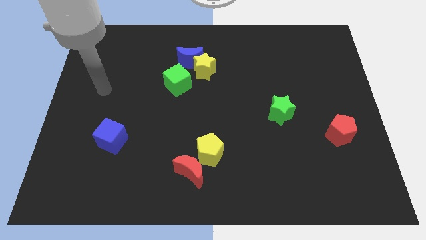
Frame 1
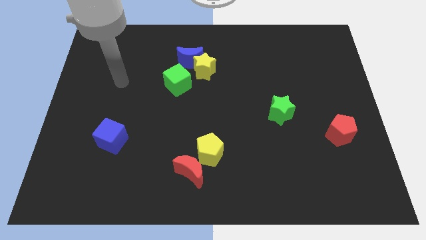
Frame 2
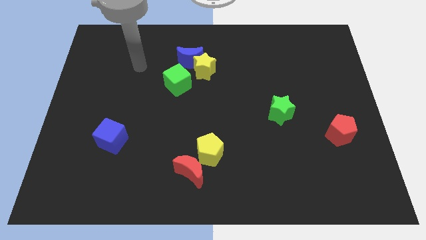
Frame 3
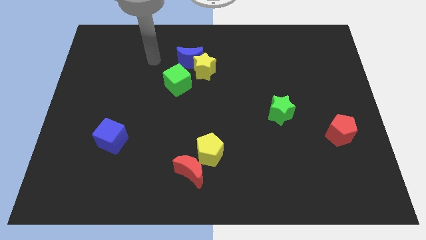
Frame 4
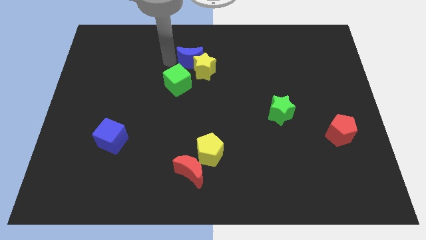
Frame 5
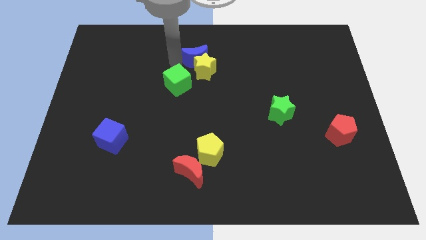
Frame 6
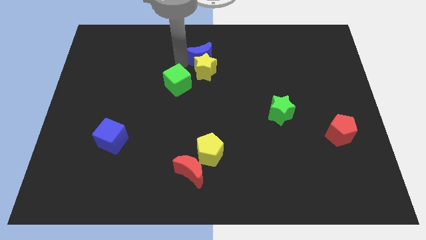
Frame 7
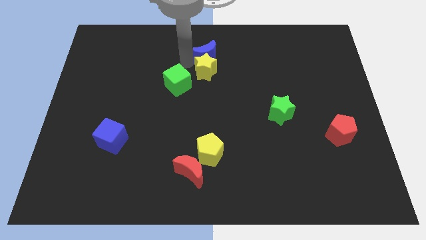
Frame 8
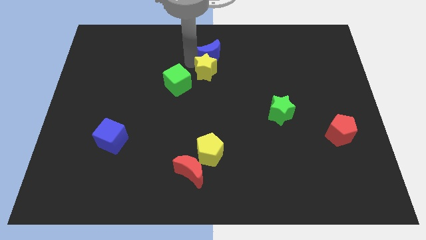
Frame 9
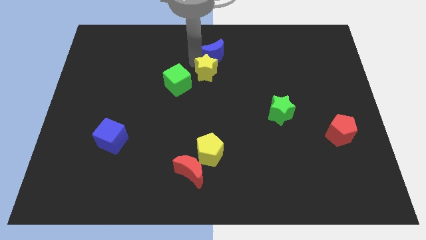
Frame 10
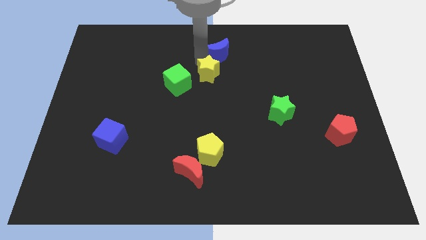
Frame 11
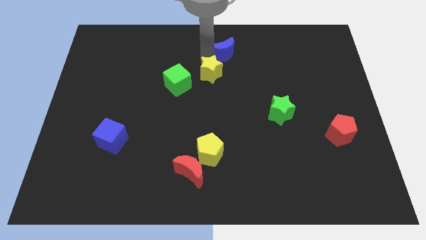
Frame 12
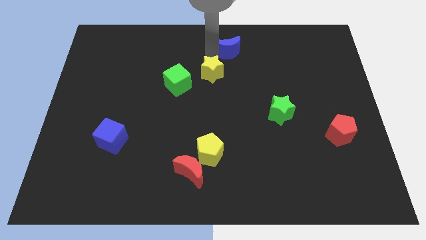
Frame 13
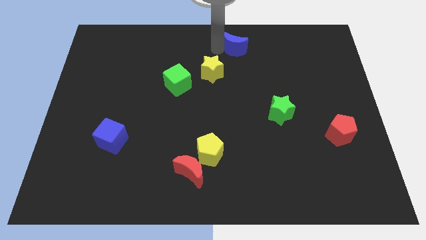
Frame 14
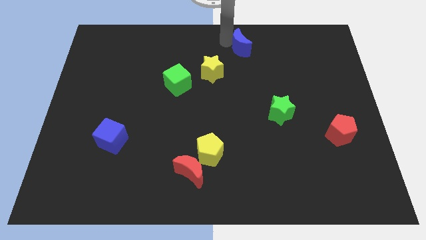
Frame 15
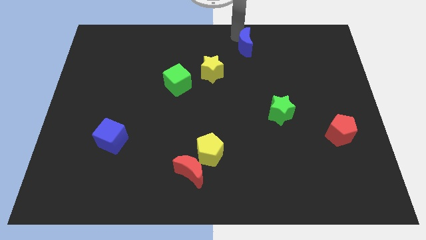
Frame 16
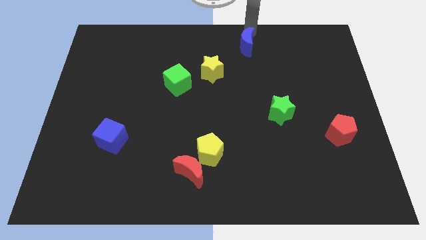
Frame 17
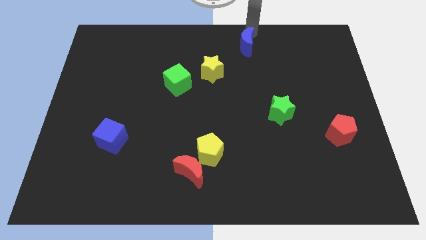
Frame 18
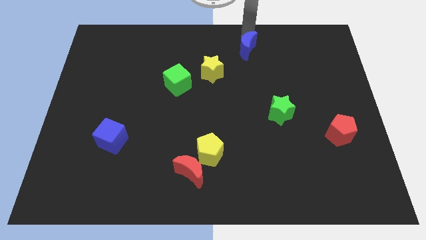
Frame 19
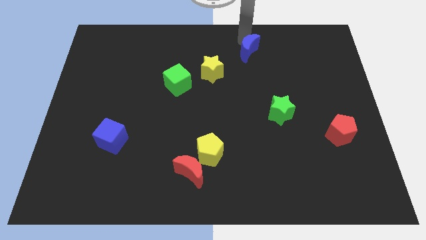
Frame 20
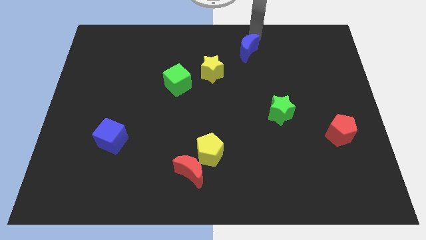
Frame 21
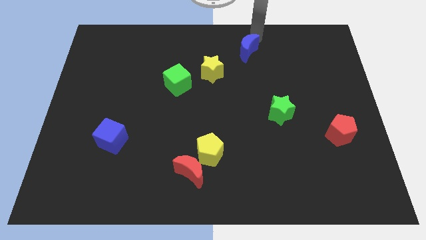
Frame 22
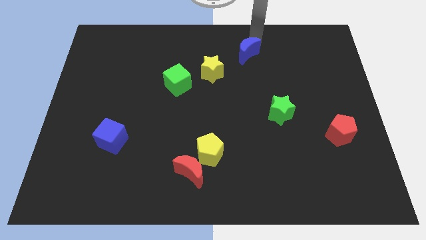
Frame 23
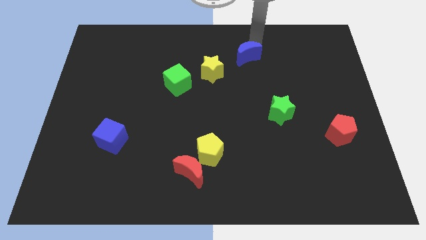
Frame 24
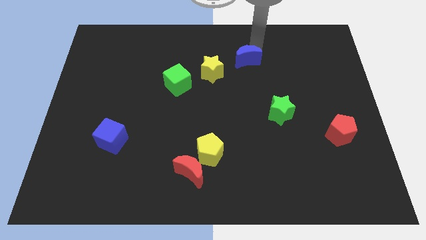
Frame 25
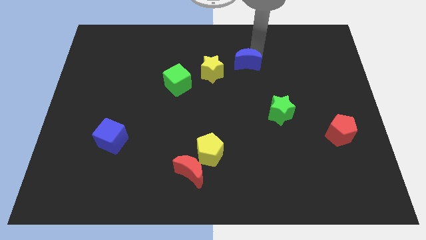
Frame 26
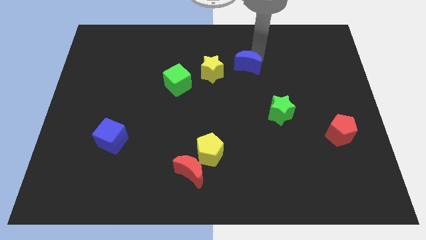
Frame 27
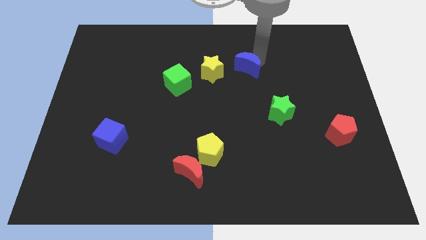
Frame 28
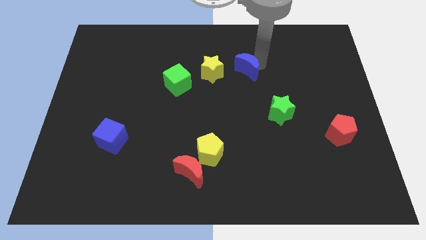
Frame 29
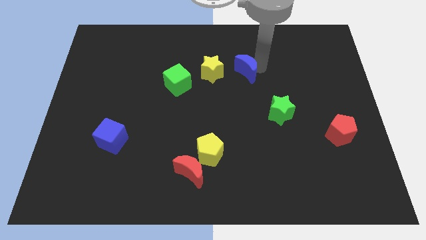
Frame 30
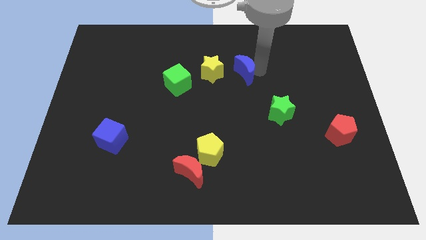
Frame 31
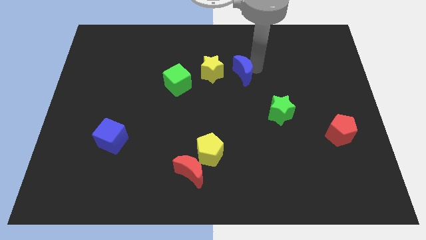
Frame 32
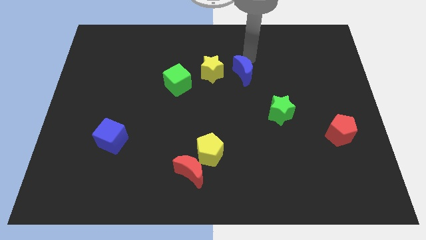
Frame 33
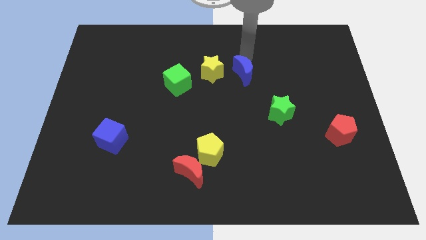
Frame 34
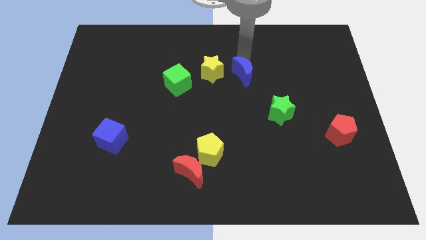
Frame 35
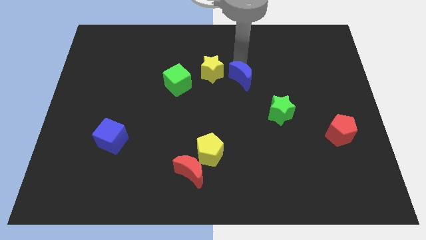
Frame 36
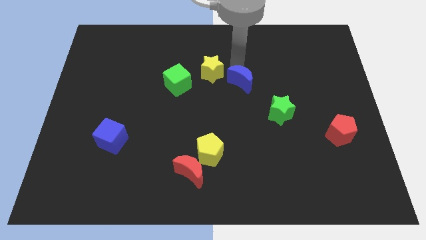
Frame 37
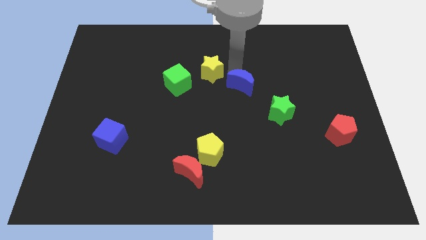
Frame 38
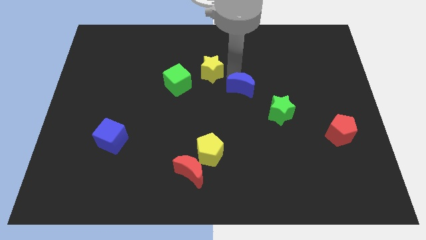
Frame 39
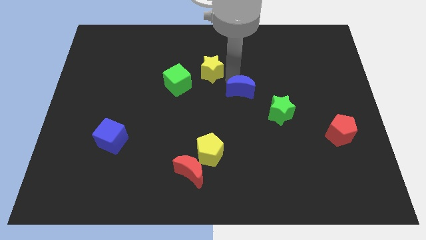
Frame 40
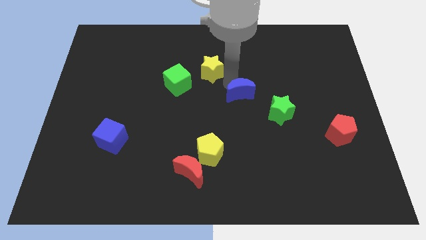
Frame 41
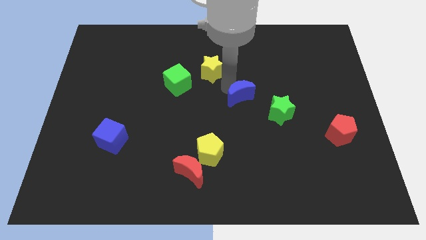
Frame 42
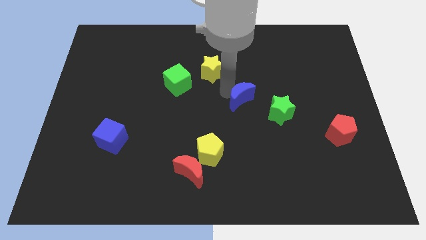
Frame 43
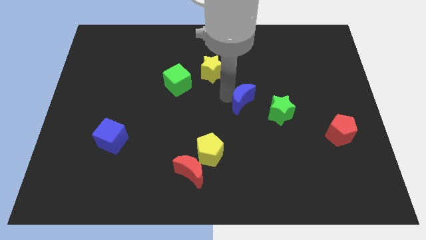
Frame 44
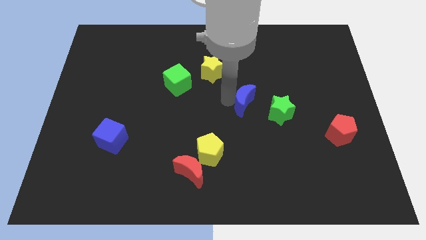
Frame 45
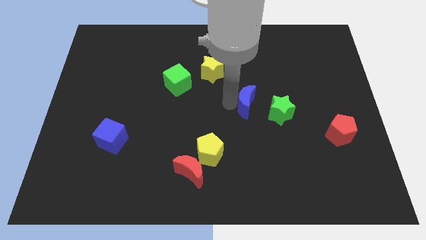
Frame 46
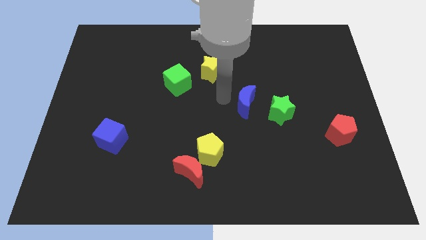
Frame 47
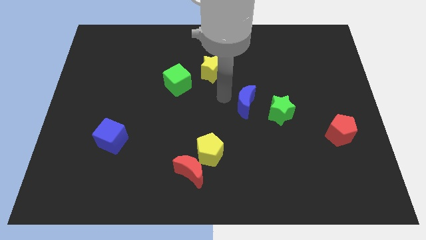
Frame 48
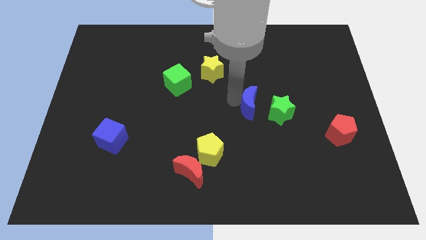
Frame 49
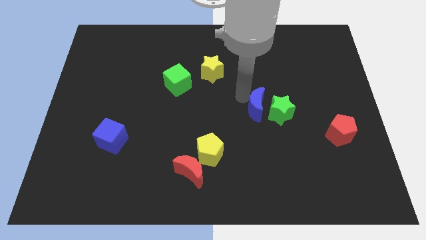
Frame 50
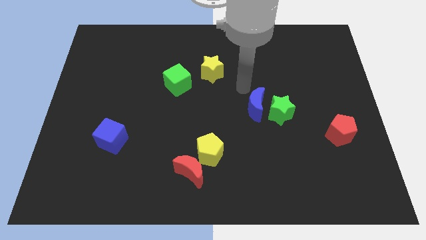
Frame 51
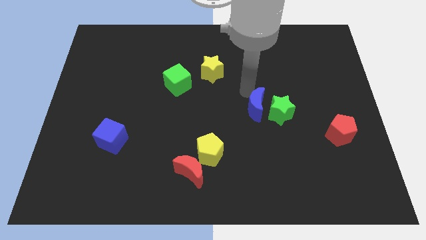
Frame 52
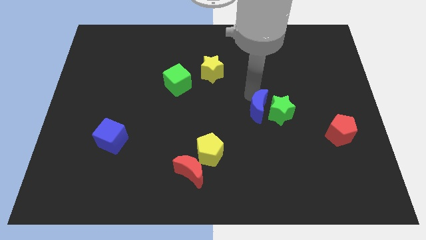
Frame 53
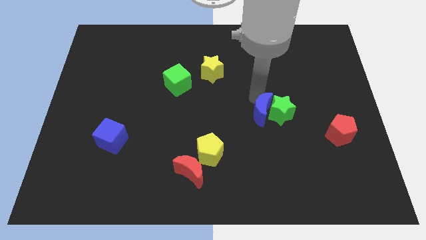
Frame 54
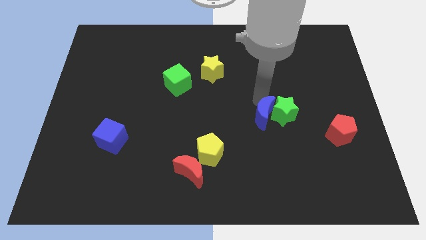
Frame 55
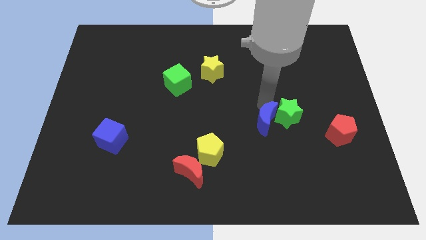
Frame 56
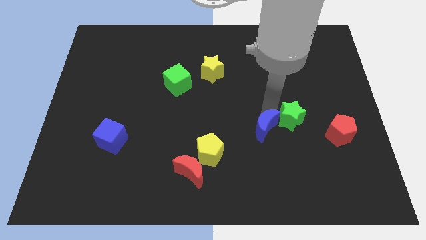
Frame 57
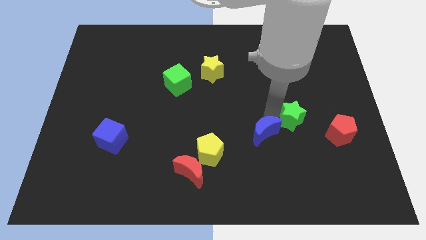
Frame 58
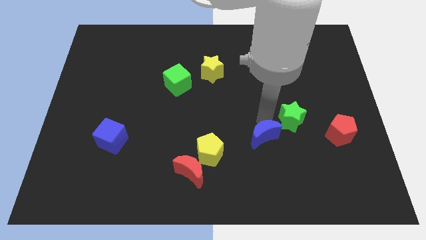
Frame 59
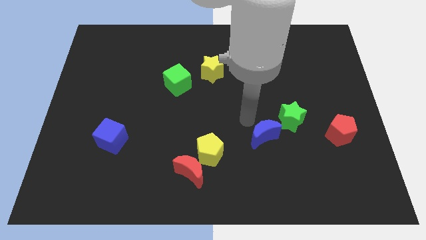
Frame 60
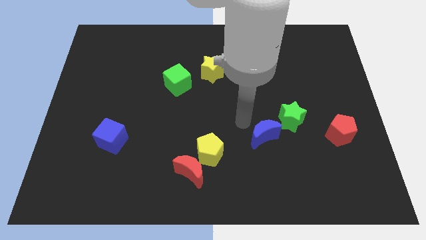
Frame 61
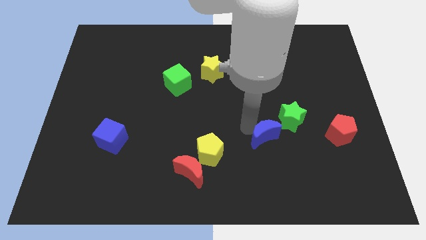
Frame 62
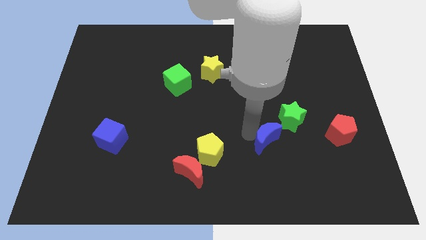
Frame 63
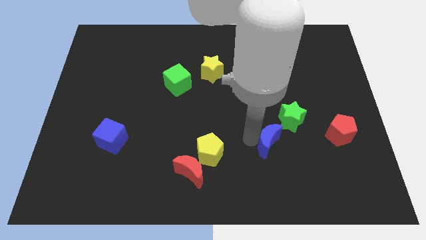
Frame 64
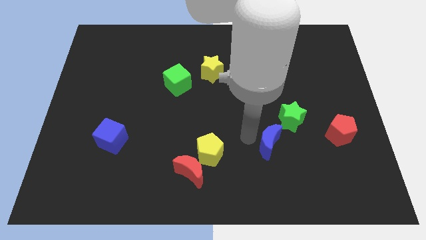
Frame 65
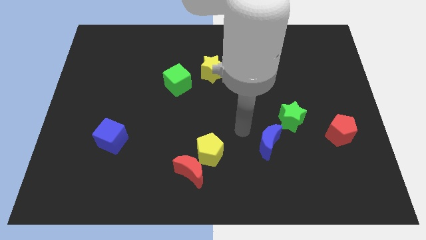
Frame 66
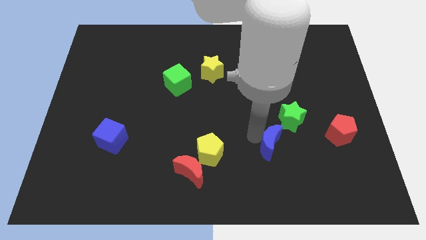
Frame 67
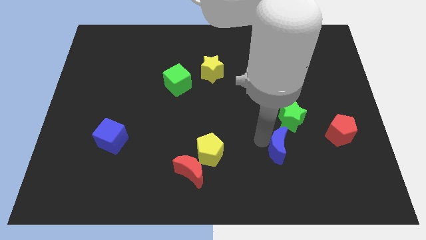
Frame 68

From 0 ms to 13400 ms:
move the blue moon to the bottom side of the green star

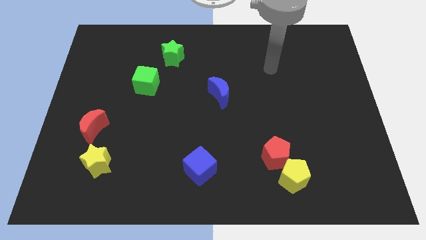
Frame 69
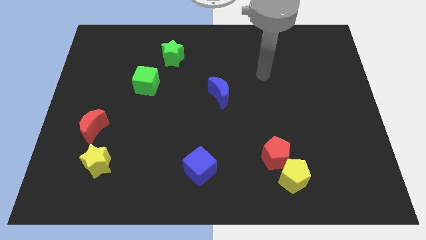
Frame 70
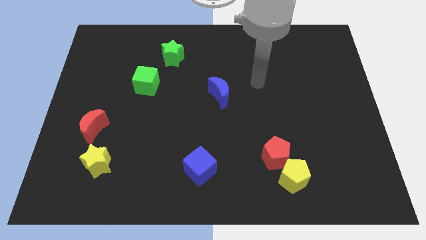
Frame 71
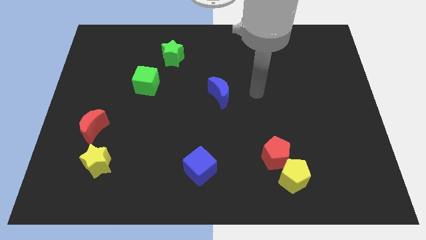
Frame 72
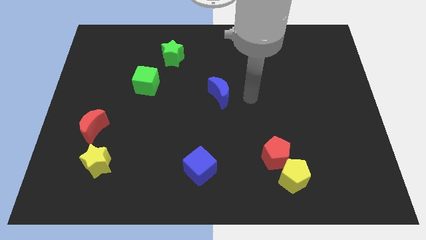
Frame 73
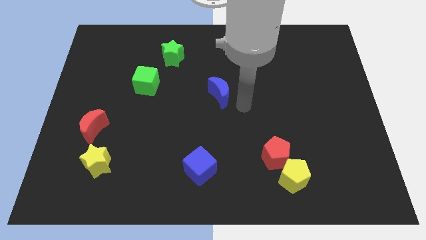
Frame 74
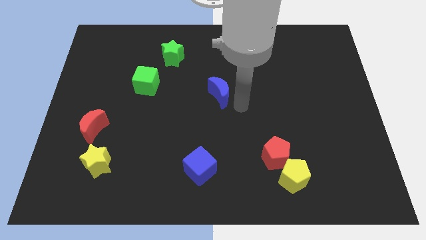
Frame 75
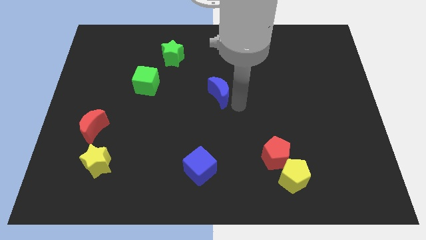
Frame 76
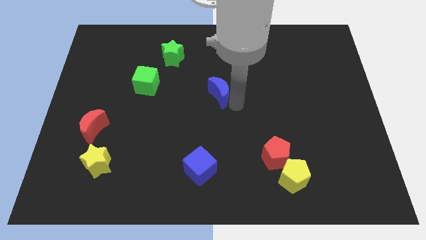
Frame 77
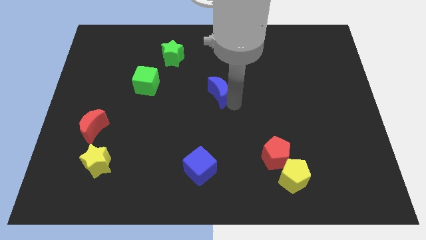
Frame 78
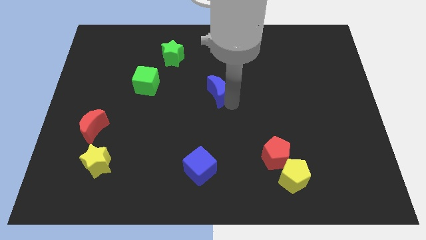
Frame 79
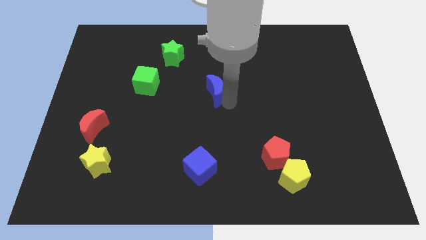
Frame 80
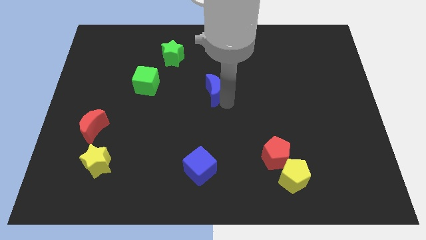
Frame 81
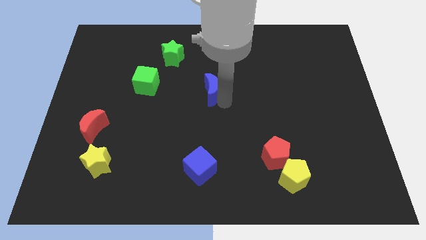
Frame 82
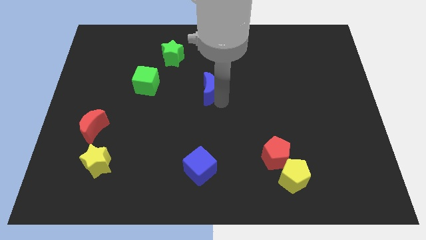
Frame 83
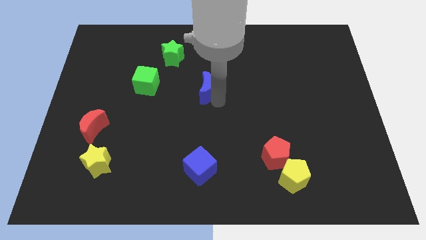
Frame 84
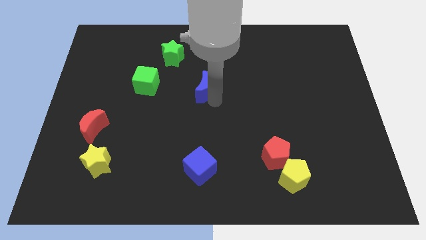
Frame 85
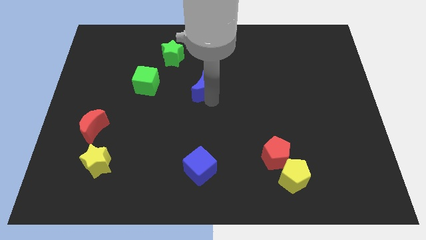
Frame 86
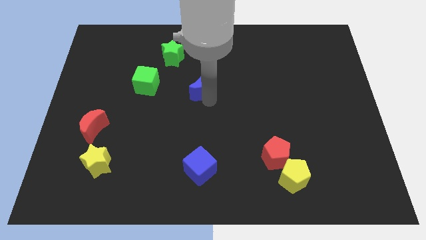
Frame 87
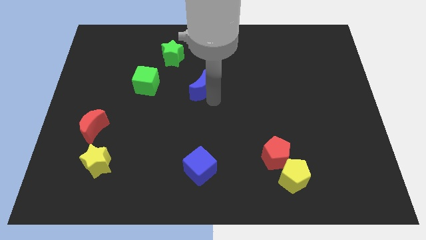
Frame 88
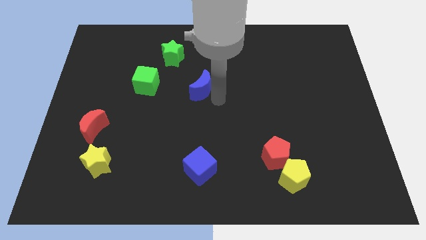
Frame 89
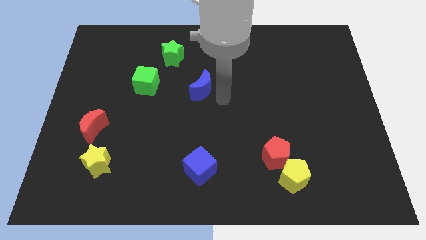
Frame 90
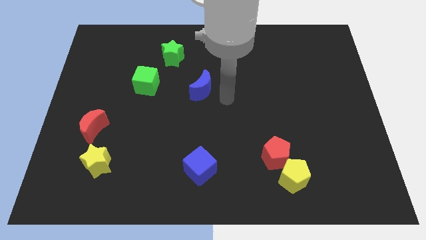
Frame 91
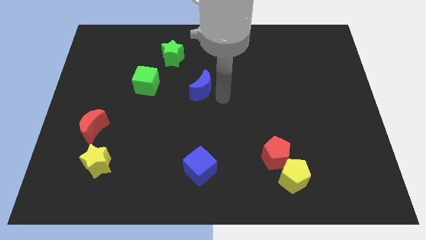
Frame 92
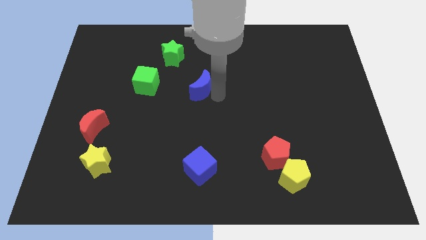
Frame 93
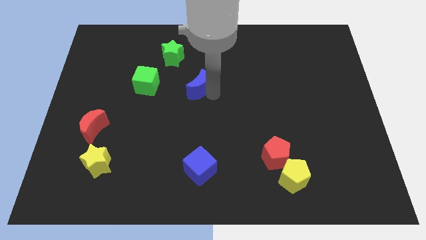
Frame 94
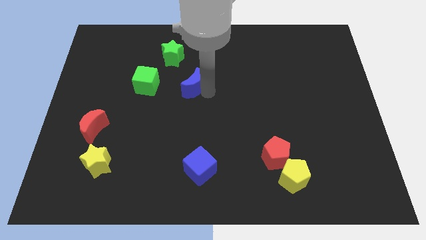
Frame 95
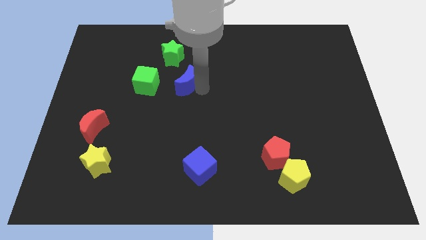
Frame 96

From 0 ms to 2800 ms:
slide the blue moon to the bottom of the green star
